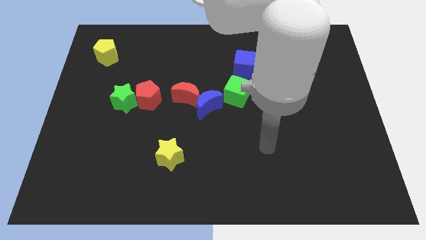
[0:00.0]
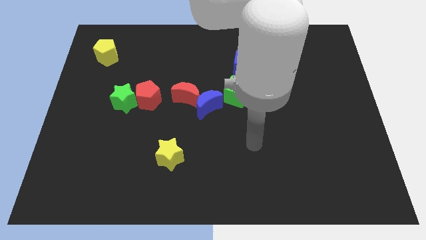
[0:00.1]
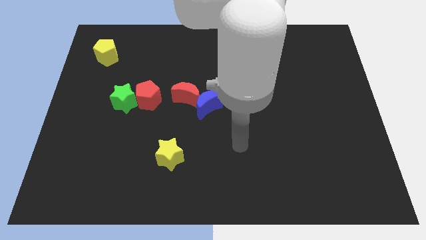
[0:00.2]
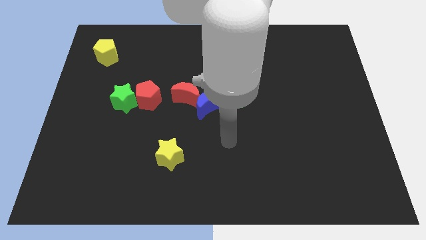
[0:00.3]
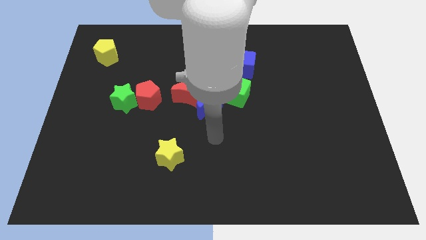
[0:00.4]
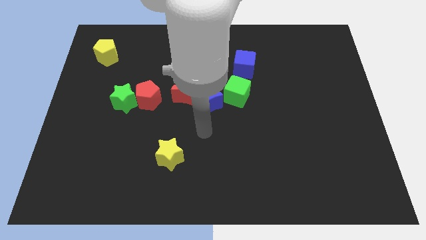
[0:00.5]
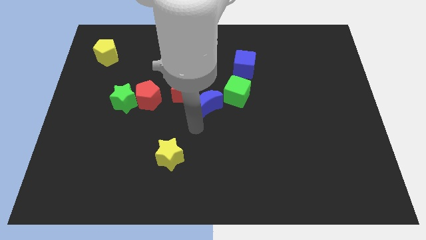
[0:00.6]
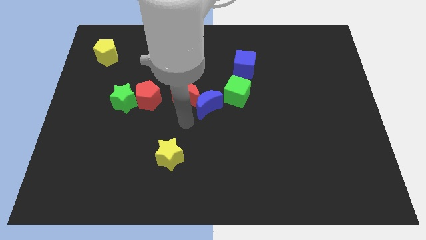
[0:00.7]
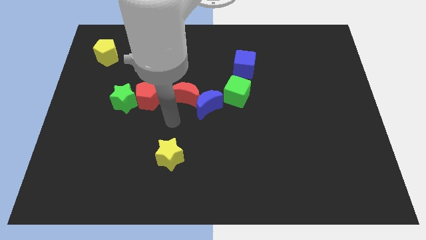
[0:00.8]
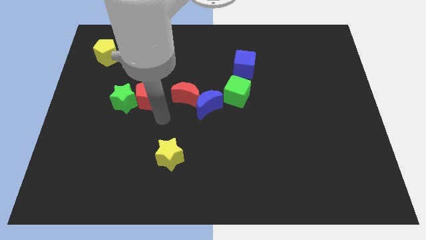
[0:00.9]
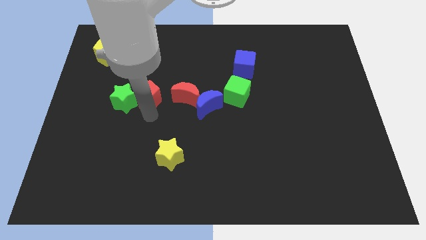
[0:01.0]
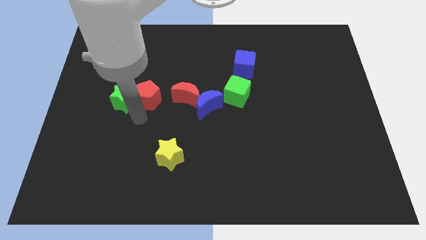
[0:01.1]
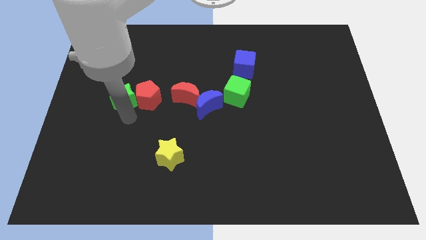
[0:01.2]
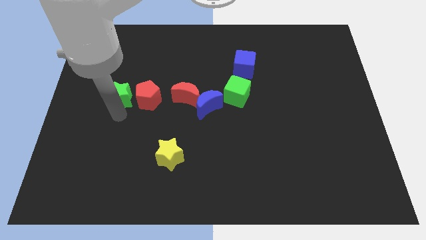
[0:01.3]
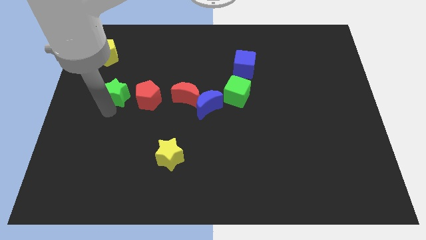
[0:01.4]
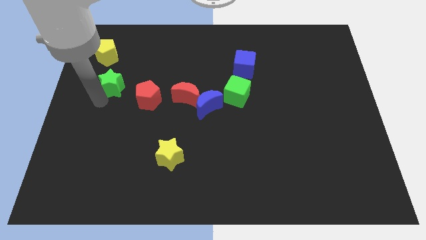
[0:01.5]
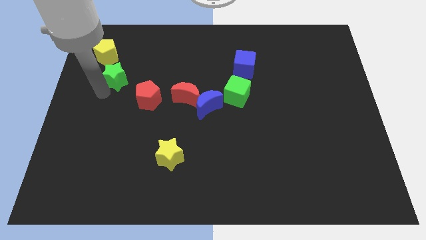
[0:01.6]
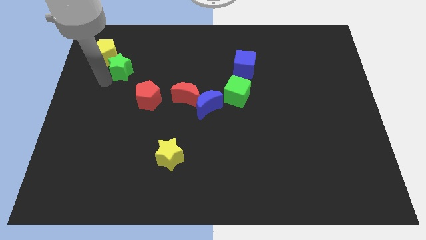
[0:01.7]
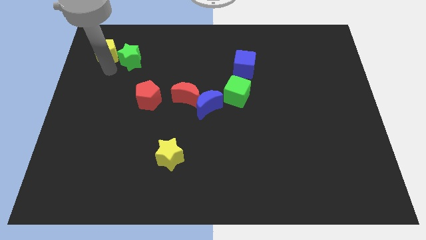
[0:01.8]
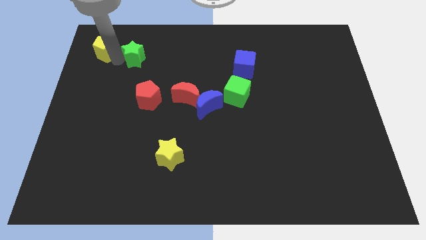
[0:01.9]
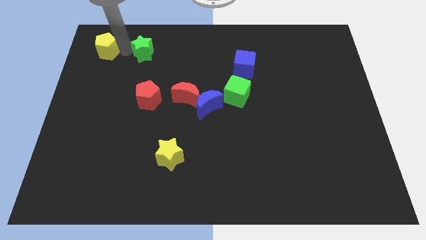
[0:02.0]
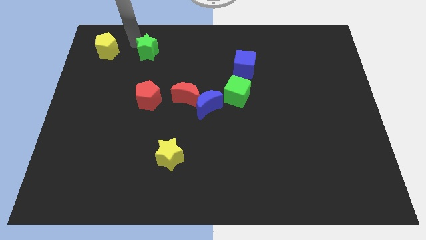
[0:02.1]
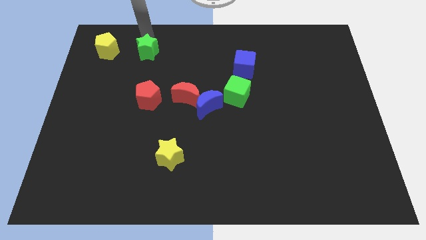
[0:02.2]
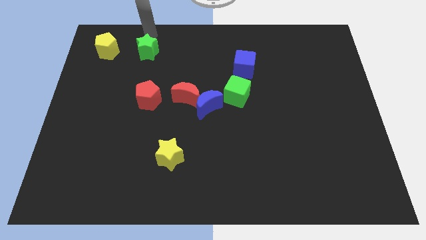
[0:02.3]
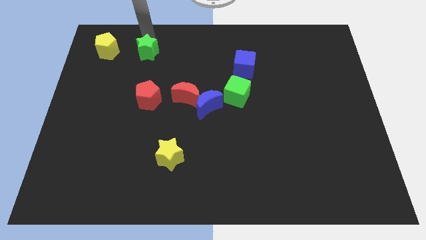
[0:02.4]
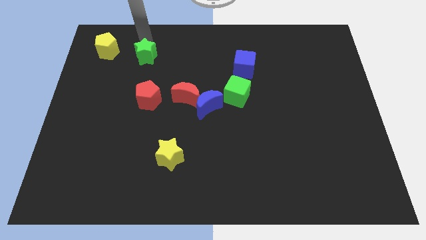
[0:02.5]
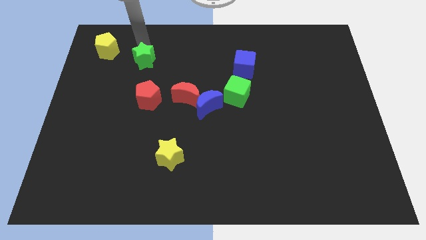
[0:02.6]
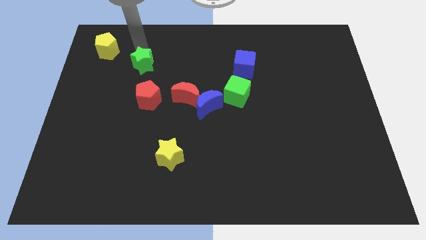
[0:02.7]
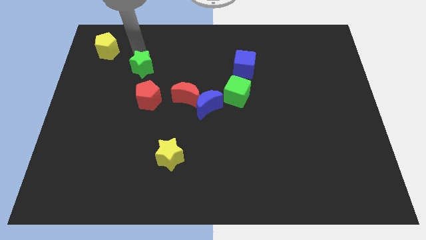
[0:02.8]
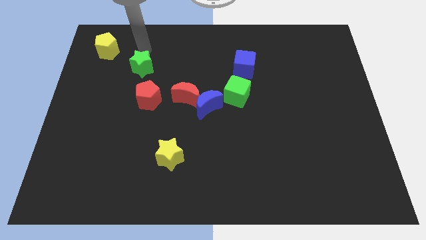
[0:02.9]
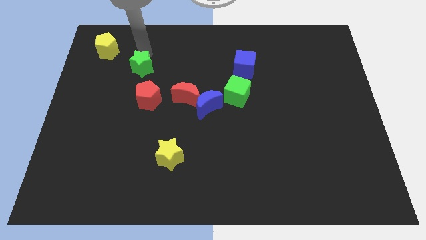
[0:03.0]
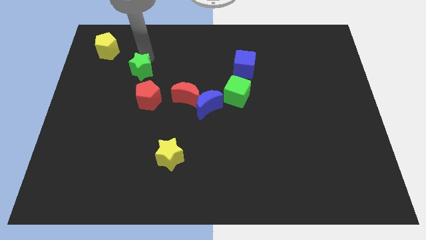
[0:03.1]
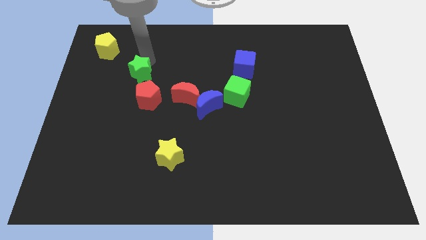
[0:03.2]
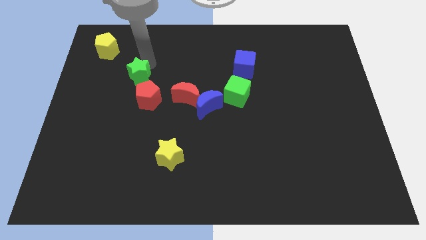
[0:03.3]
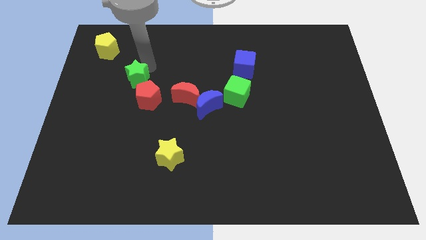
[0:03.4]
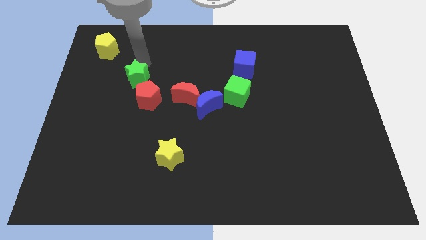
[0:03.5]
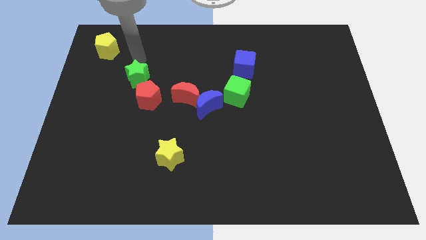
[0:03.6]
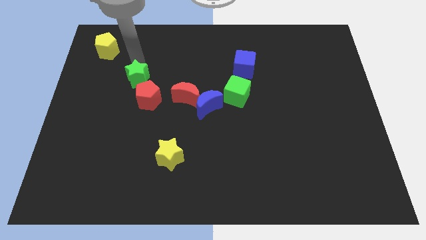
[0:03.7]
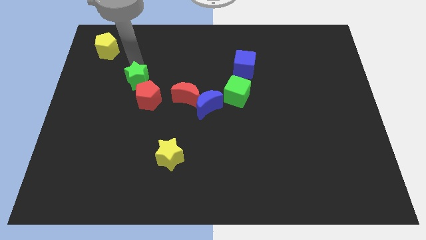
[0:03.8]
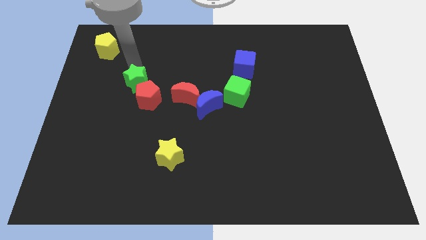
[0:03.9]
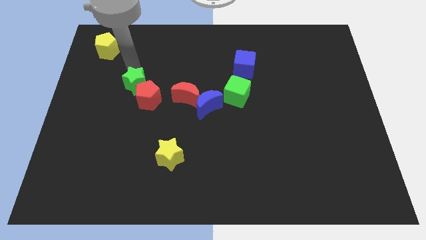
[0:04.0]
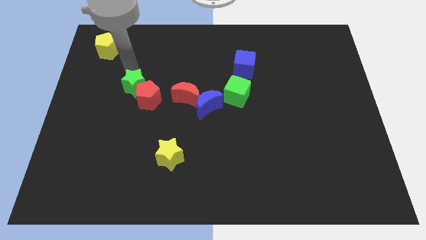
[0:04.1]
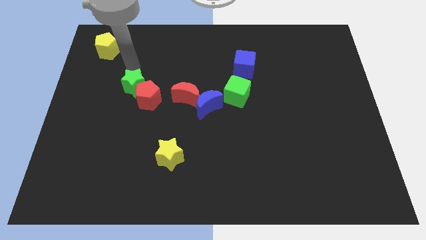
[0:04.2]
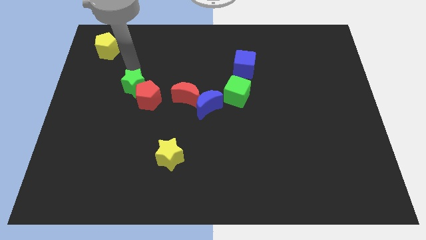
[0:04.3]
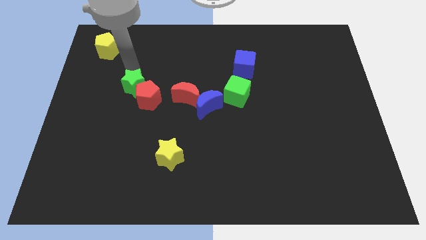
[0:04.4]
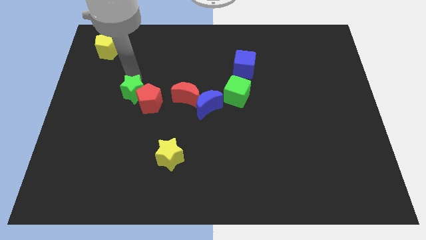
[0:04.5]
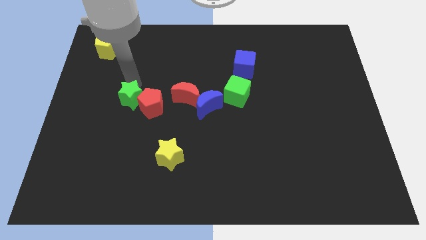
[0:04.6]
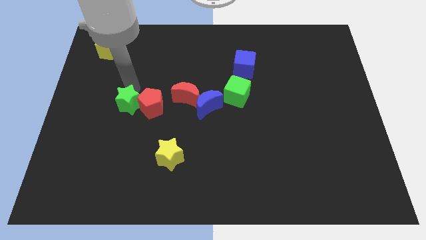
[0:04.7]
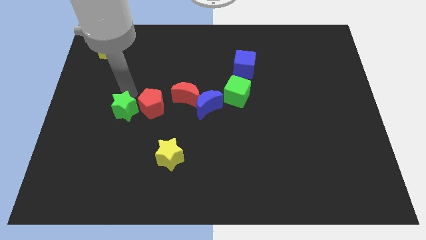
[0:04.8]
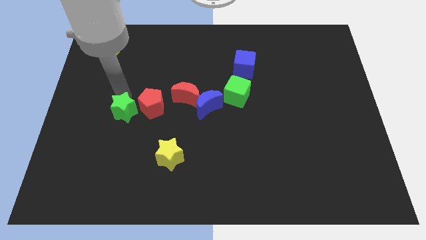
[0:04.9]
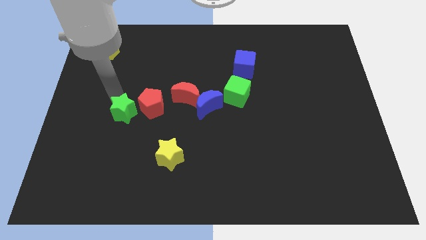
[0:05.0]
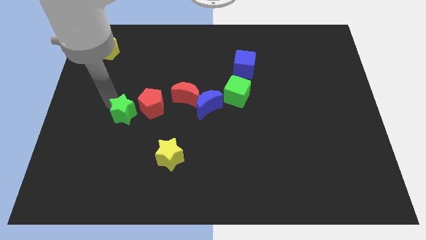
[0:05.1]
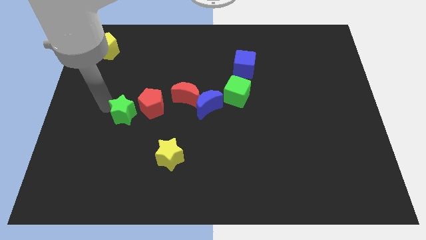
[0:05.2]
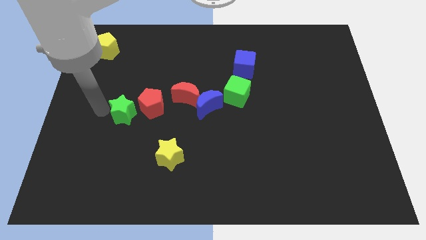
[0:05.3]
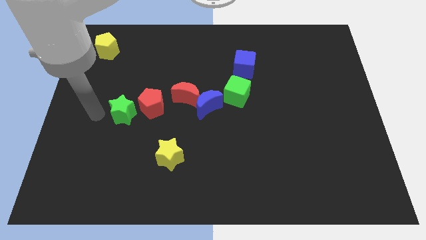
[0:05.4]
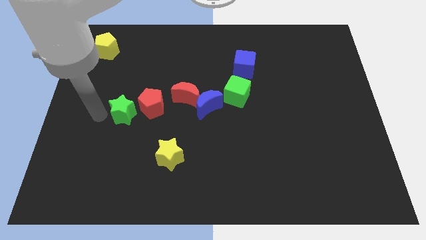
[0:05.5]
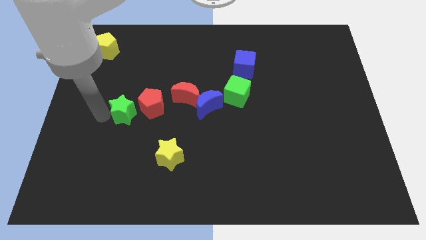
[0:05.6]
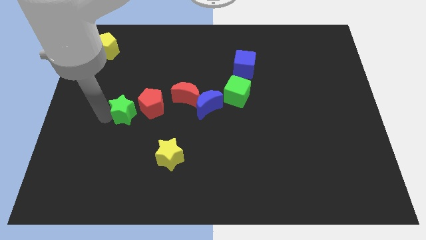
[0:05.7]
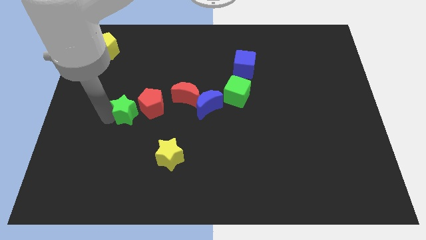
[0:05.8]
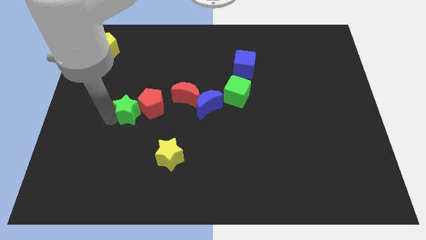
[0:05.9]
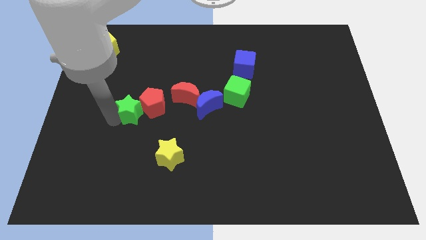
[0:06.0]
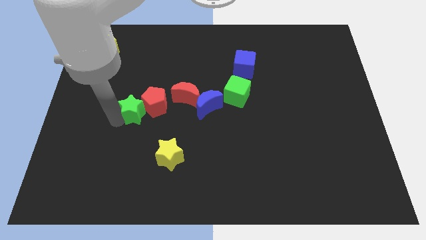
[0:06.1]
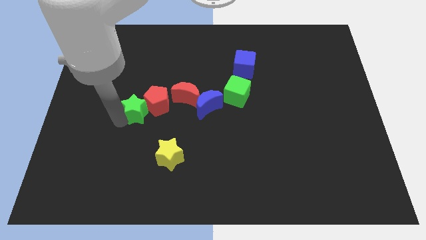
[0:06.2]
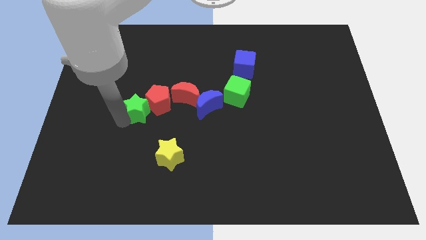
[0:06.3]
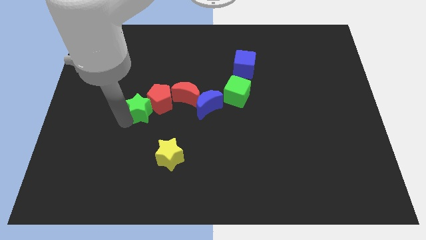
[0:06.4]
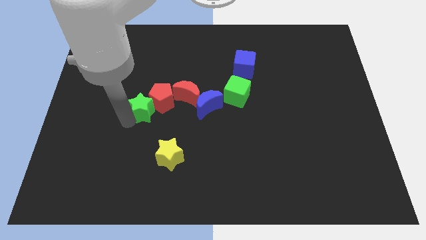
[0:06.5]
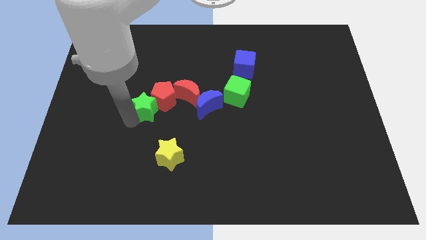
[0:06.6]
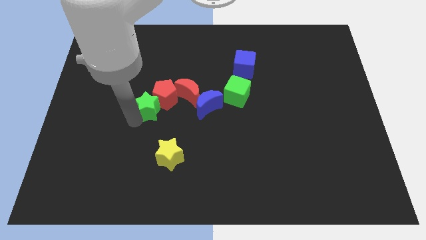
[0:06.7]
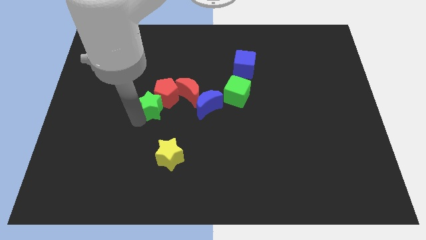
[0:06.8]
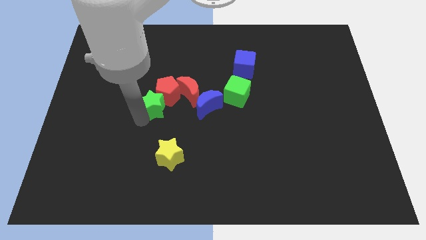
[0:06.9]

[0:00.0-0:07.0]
slide the green star to the top of the yellow star
